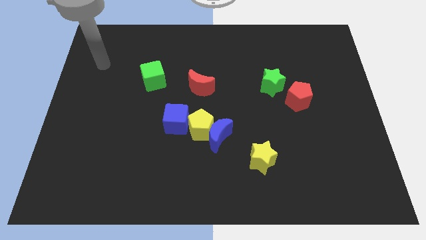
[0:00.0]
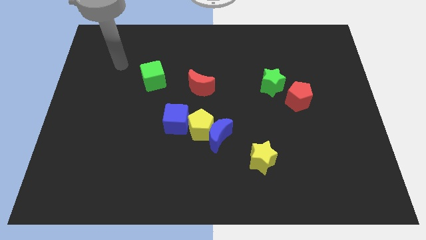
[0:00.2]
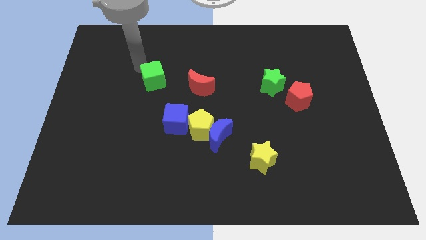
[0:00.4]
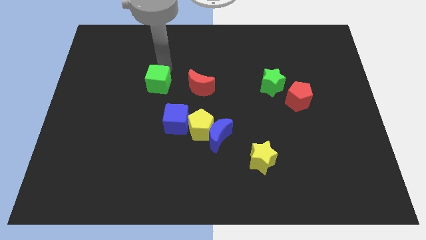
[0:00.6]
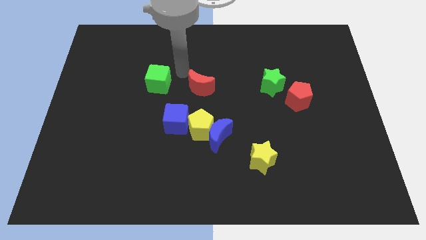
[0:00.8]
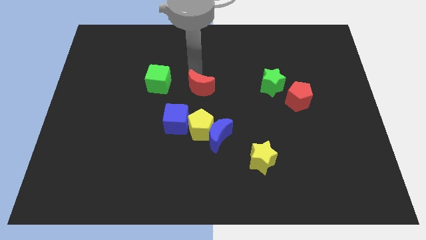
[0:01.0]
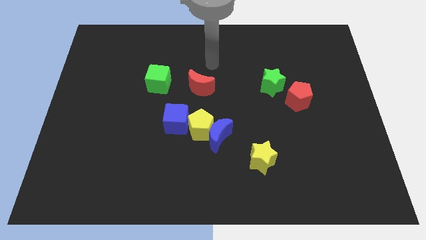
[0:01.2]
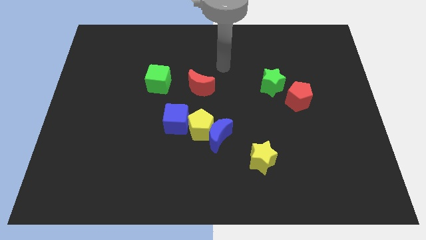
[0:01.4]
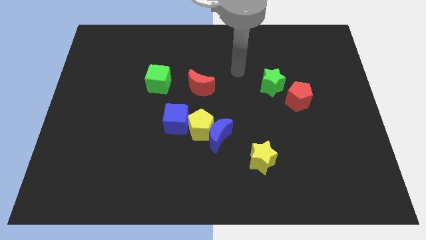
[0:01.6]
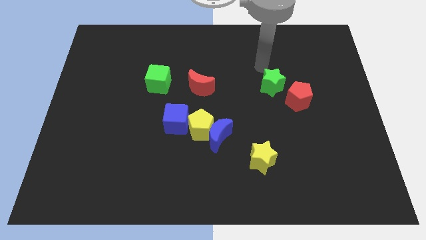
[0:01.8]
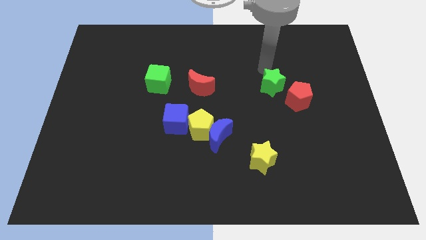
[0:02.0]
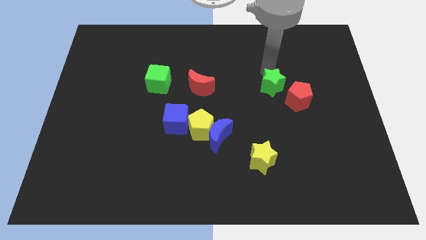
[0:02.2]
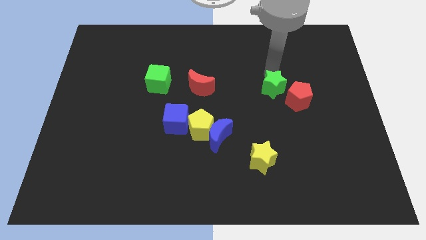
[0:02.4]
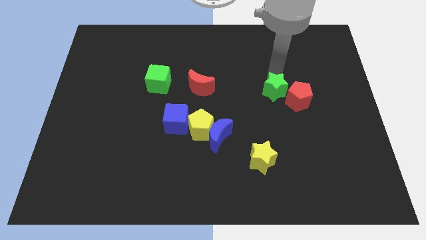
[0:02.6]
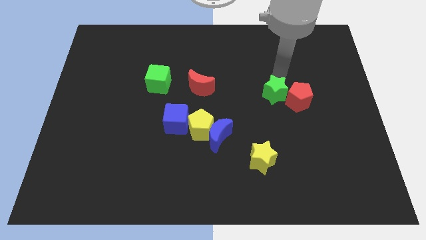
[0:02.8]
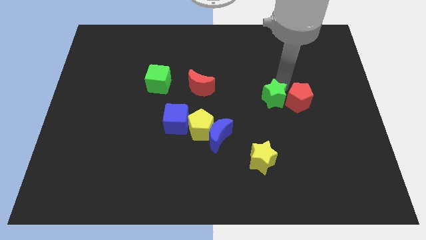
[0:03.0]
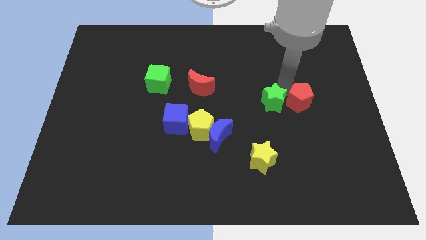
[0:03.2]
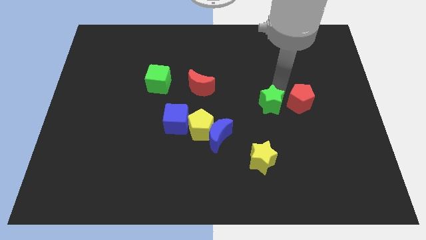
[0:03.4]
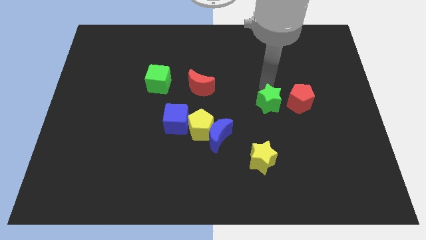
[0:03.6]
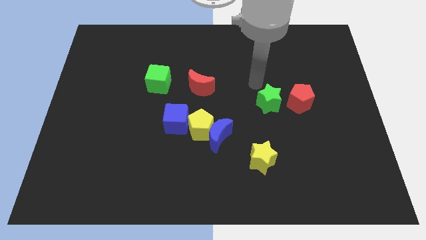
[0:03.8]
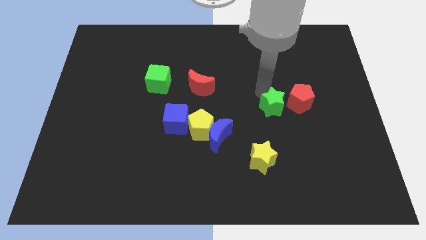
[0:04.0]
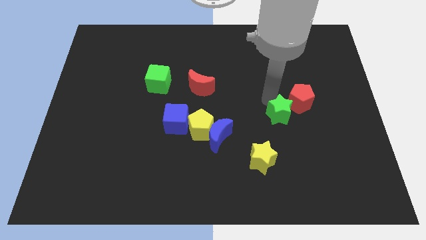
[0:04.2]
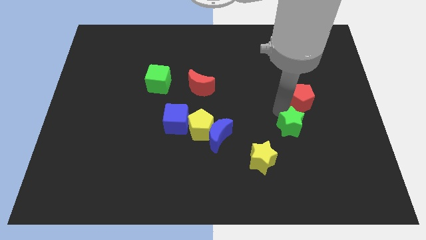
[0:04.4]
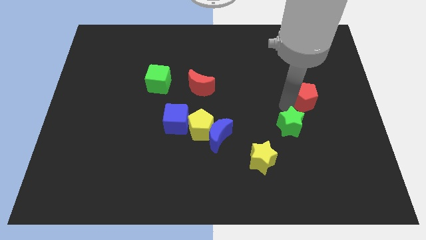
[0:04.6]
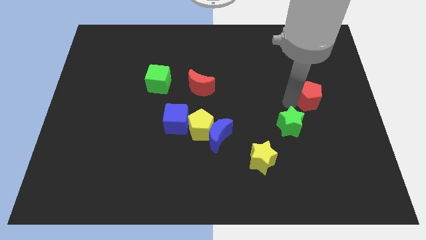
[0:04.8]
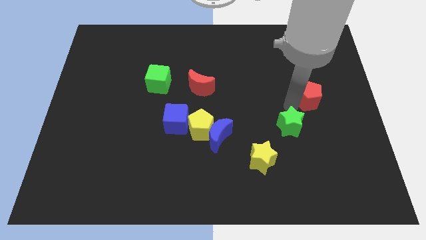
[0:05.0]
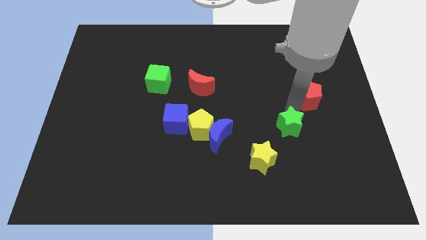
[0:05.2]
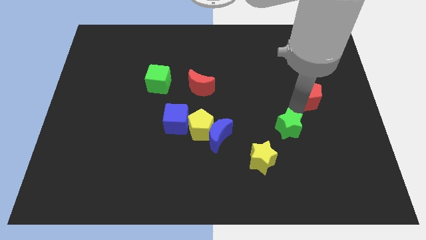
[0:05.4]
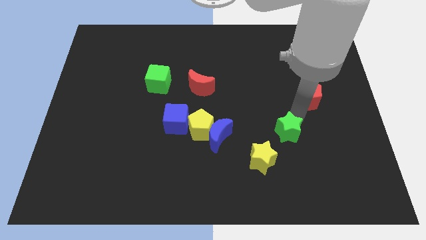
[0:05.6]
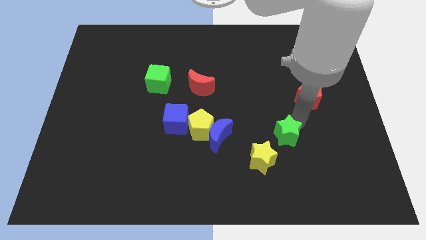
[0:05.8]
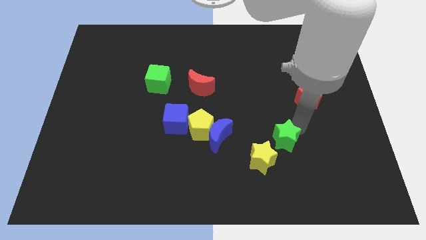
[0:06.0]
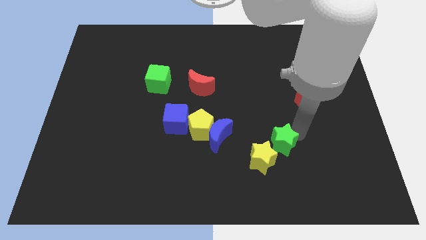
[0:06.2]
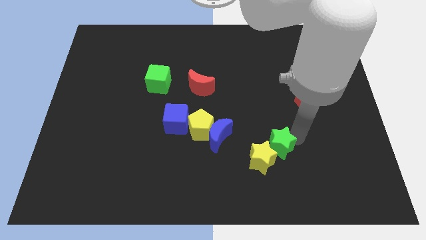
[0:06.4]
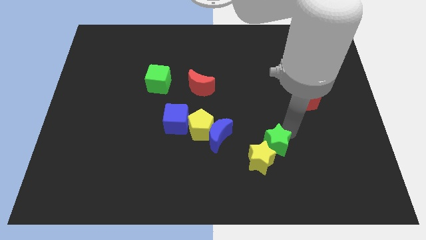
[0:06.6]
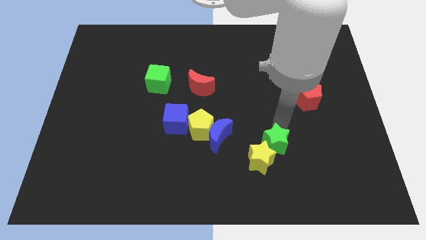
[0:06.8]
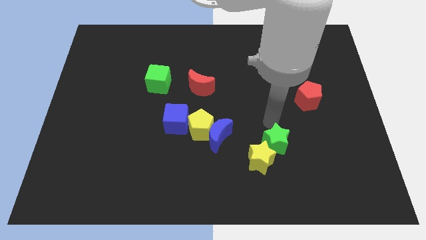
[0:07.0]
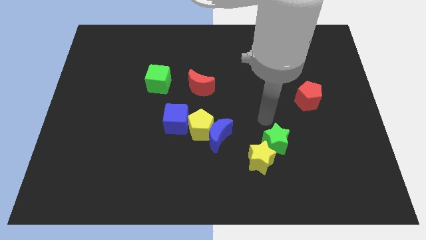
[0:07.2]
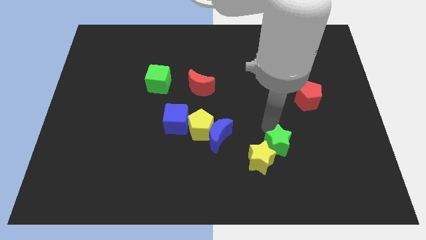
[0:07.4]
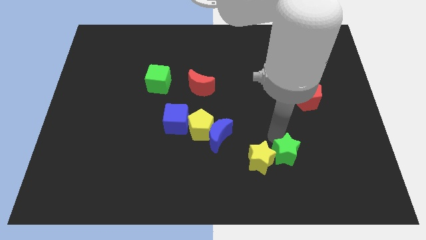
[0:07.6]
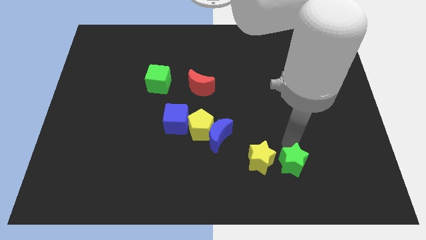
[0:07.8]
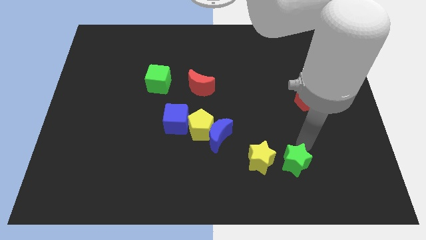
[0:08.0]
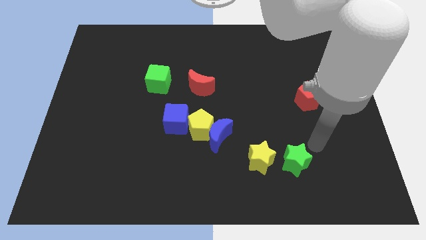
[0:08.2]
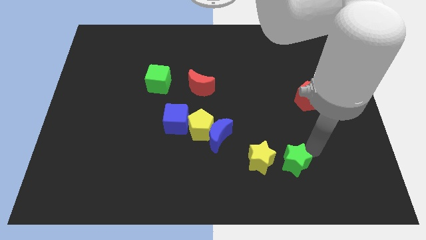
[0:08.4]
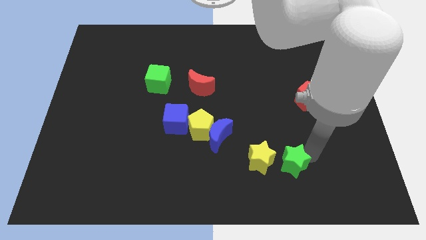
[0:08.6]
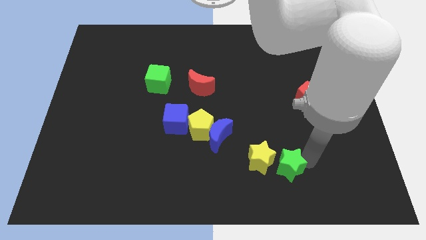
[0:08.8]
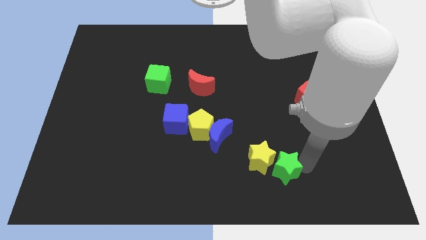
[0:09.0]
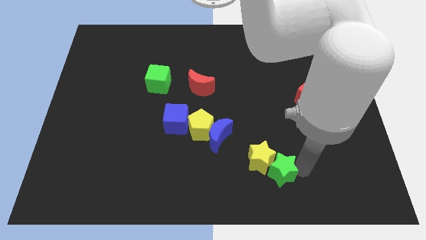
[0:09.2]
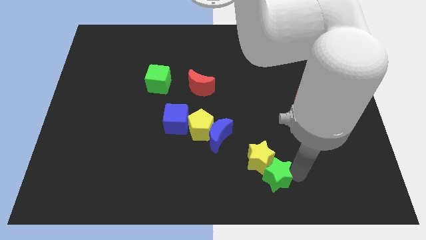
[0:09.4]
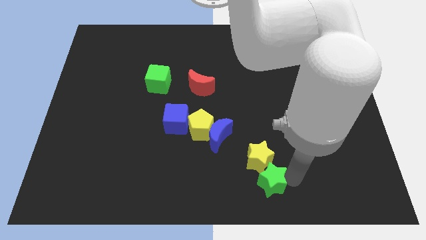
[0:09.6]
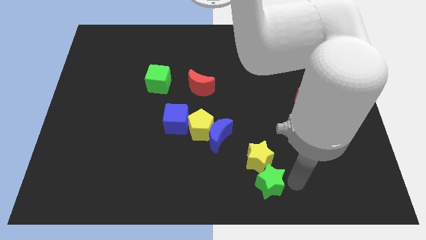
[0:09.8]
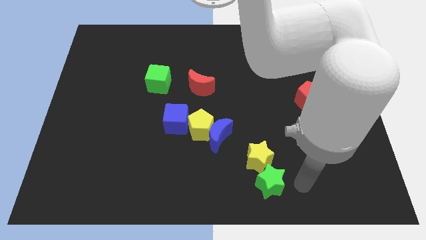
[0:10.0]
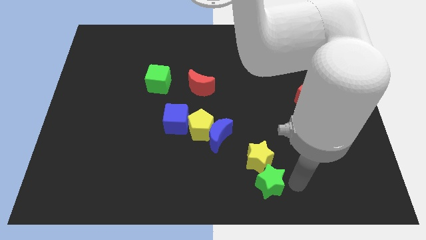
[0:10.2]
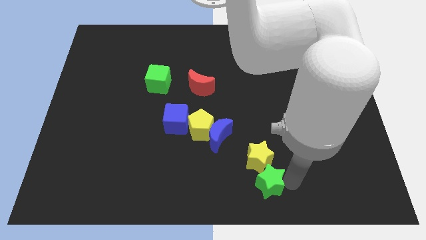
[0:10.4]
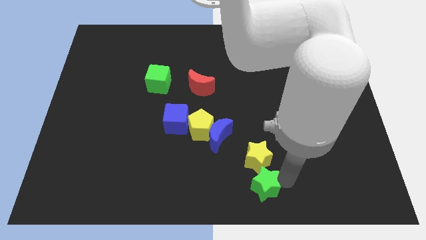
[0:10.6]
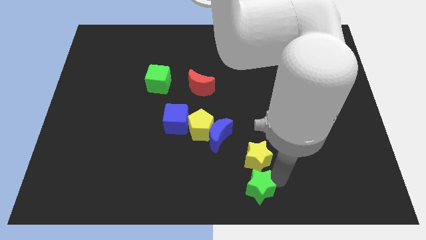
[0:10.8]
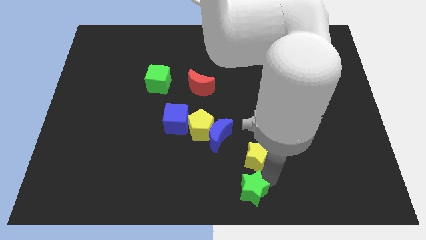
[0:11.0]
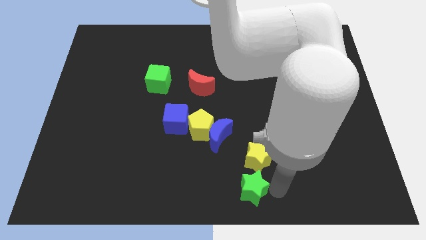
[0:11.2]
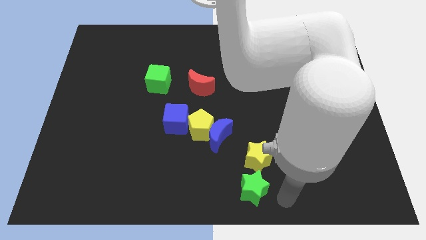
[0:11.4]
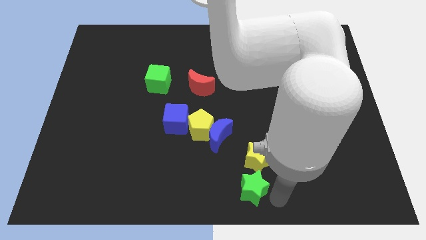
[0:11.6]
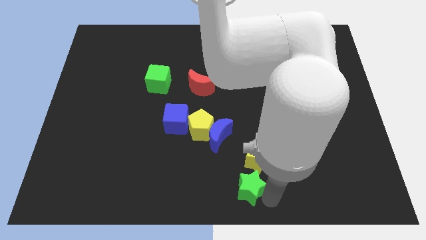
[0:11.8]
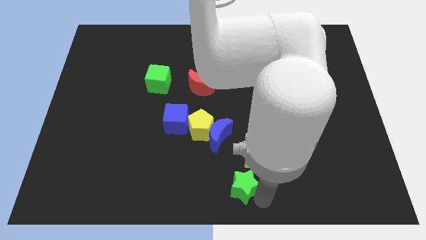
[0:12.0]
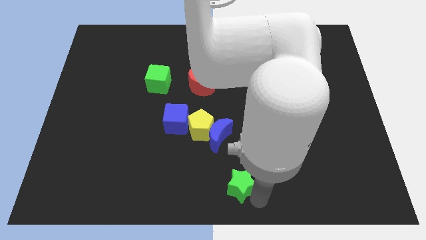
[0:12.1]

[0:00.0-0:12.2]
move the green star to the bottom side of the blue moon

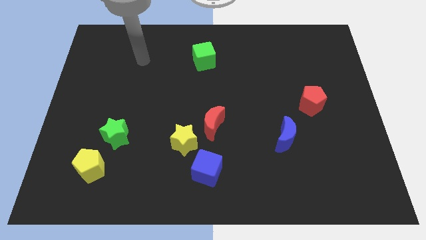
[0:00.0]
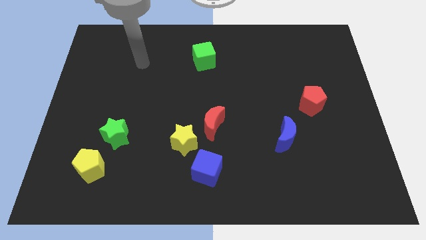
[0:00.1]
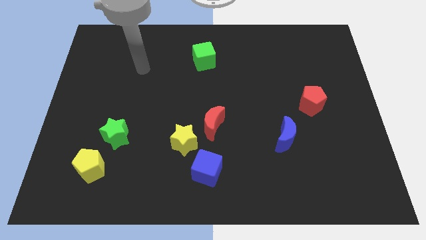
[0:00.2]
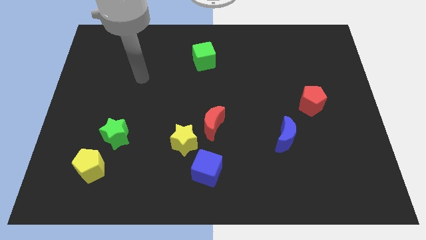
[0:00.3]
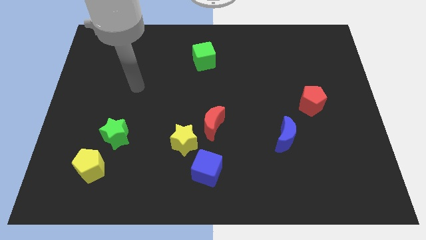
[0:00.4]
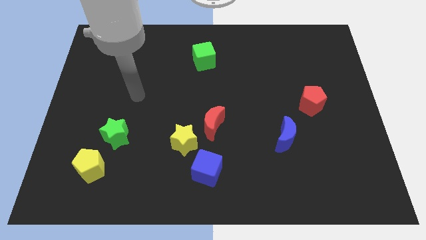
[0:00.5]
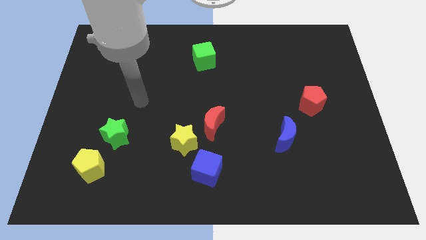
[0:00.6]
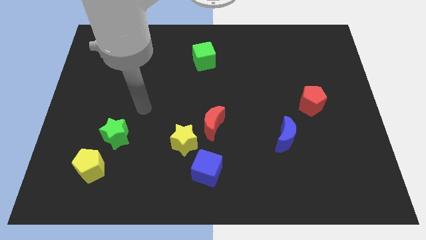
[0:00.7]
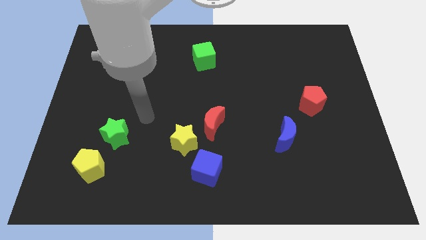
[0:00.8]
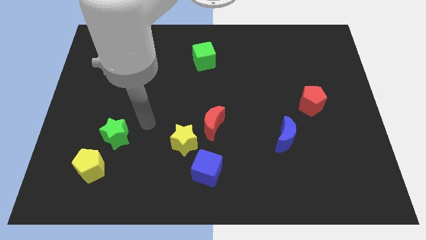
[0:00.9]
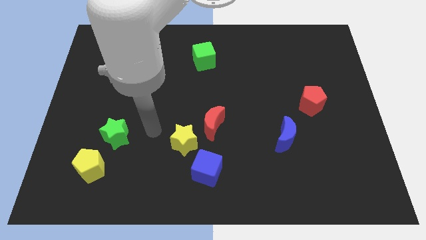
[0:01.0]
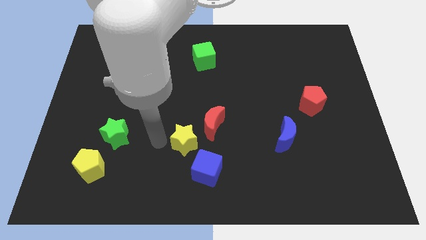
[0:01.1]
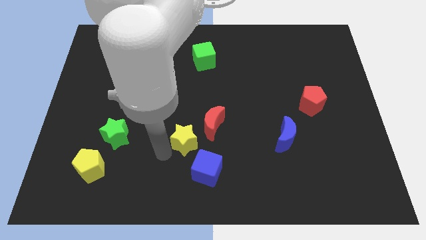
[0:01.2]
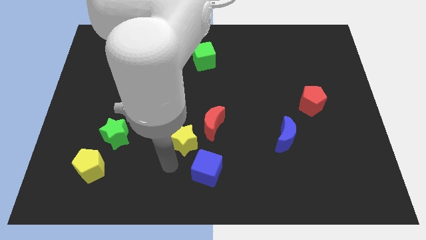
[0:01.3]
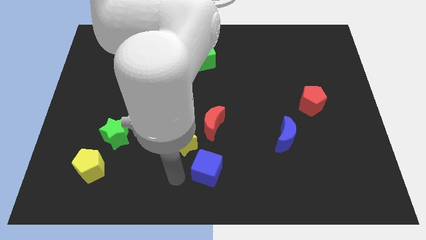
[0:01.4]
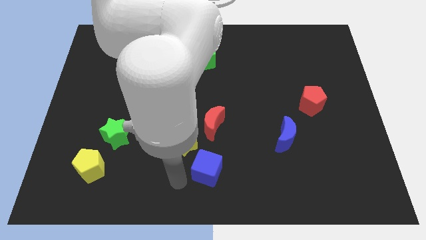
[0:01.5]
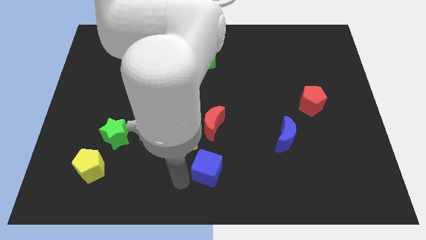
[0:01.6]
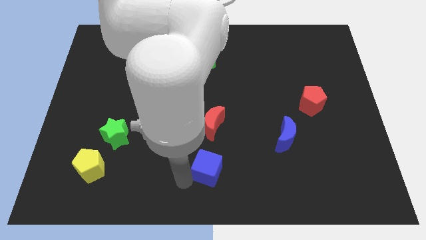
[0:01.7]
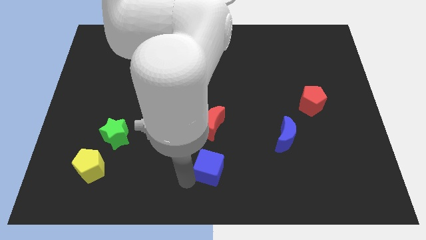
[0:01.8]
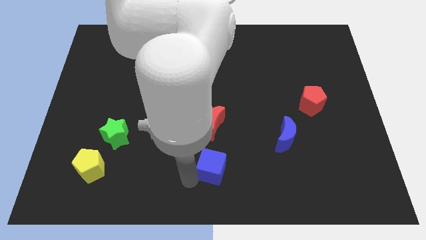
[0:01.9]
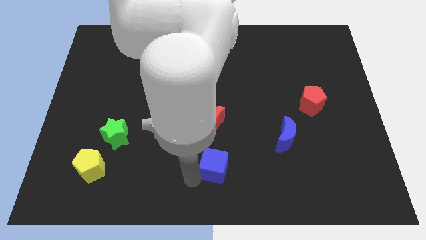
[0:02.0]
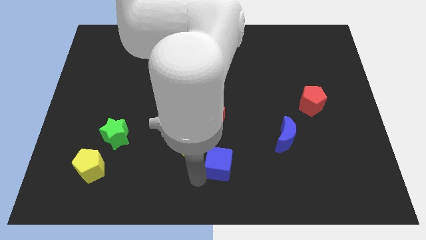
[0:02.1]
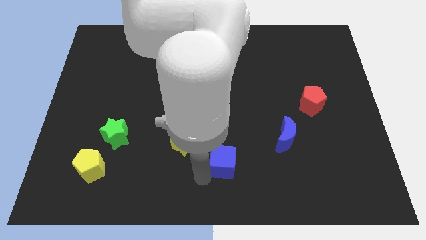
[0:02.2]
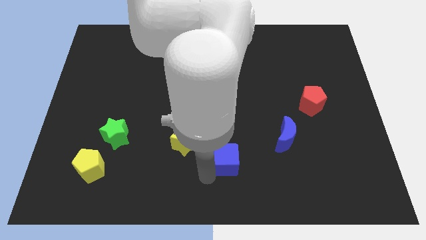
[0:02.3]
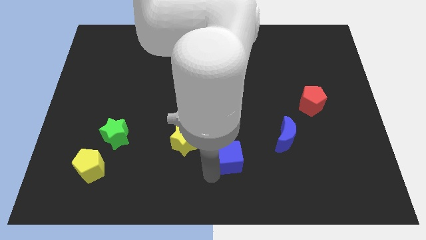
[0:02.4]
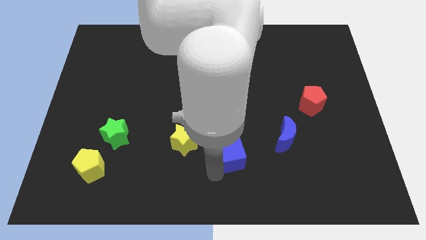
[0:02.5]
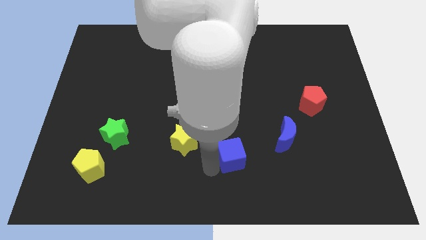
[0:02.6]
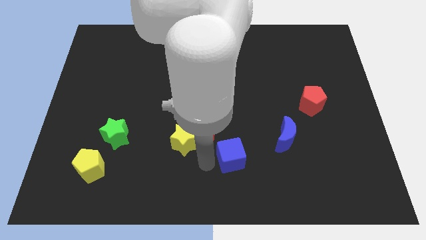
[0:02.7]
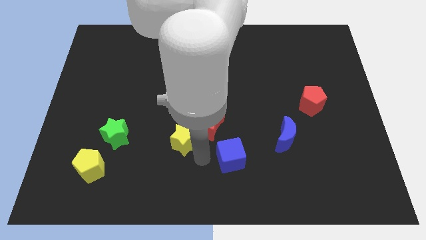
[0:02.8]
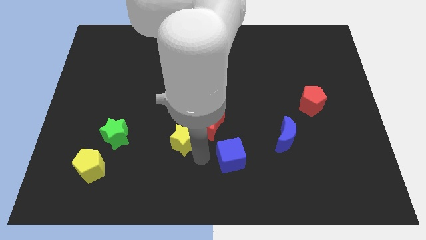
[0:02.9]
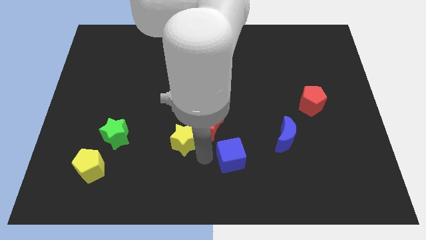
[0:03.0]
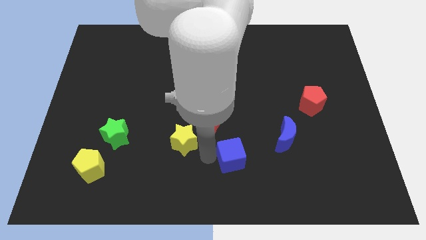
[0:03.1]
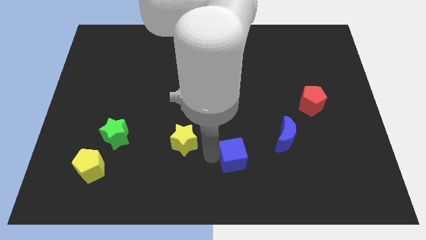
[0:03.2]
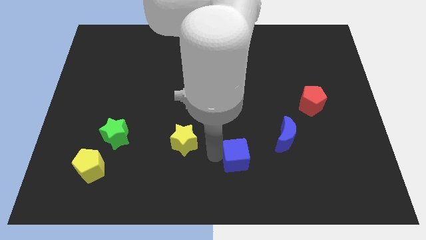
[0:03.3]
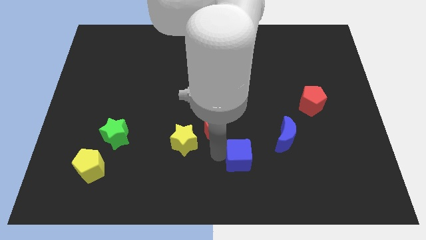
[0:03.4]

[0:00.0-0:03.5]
move the blue cube to the bottom left of the blue moon
